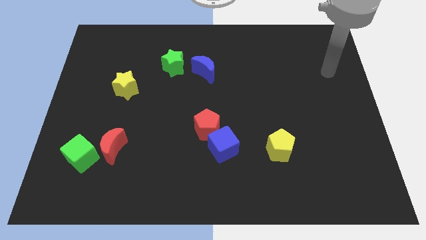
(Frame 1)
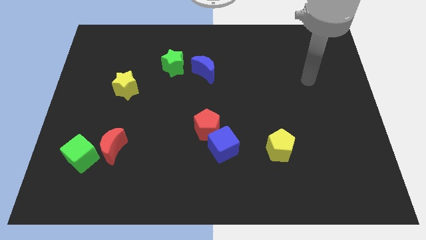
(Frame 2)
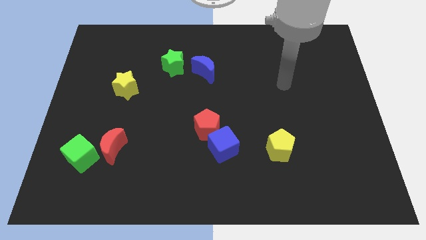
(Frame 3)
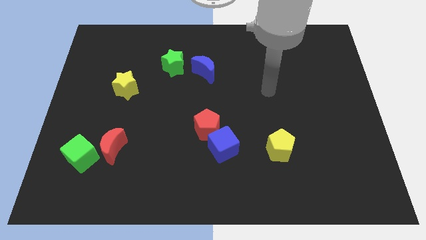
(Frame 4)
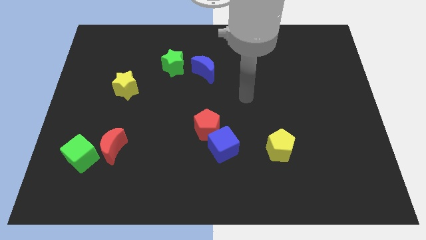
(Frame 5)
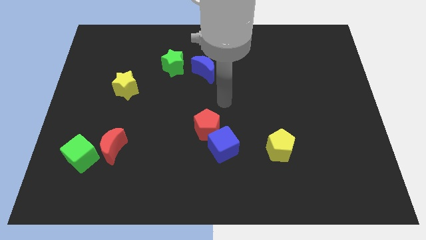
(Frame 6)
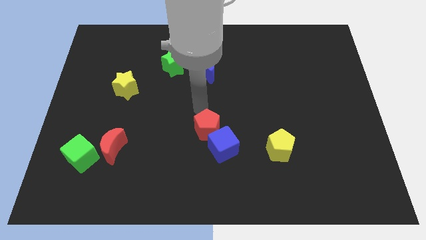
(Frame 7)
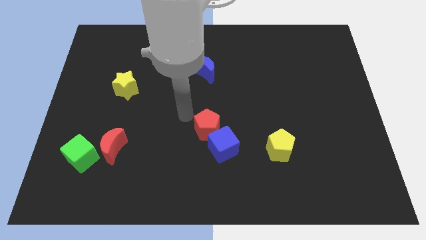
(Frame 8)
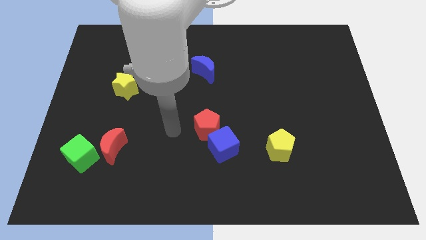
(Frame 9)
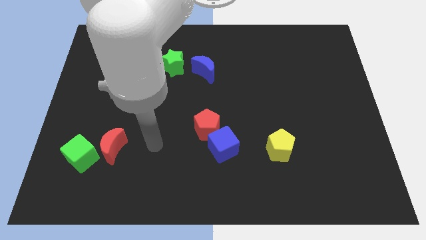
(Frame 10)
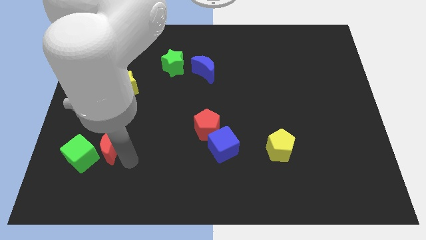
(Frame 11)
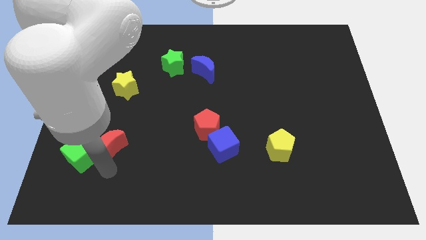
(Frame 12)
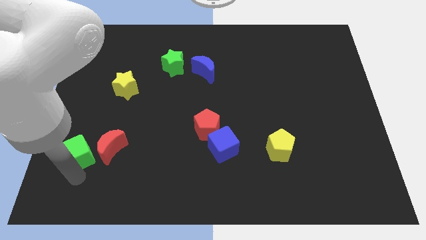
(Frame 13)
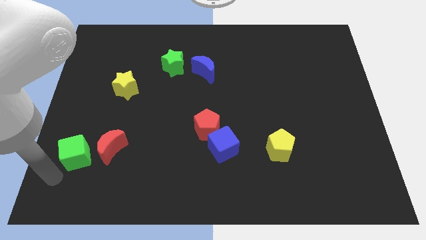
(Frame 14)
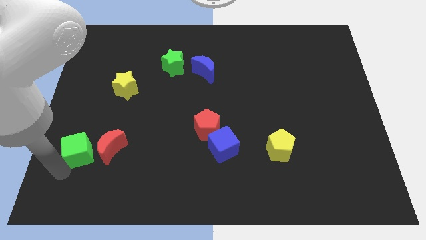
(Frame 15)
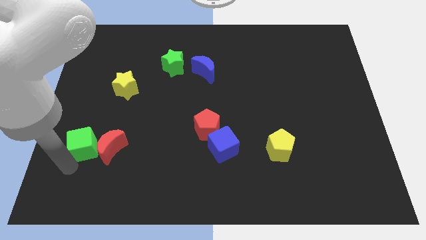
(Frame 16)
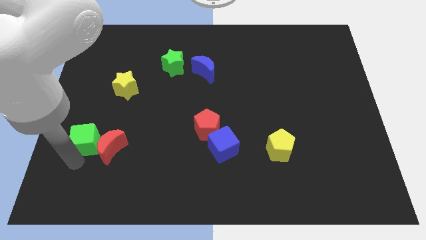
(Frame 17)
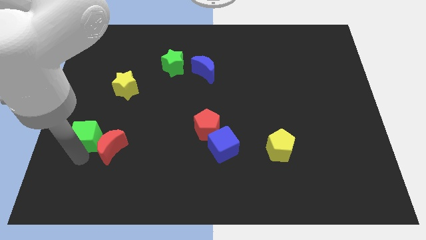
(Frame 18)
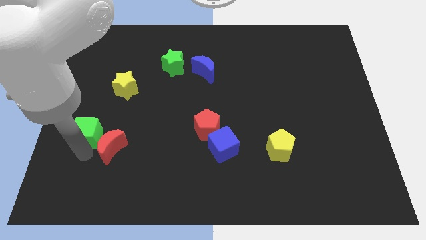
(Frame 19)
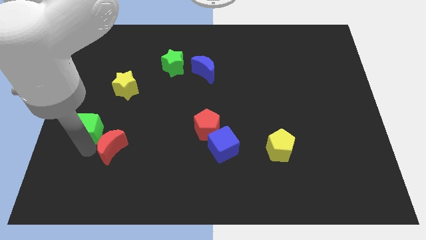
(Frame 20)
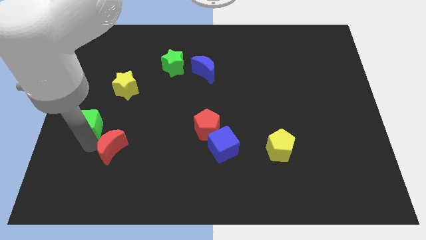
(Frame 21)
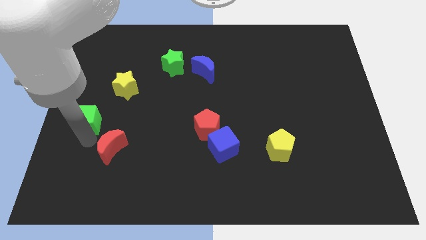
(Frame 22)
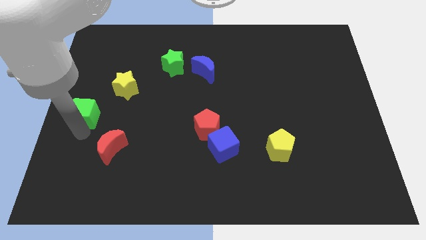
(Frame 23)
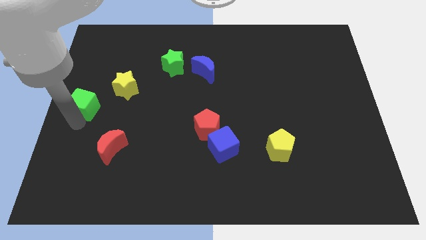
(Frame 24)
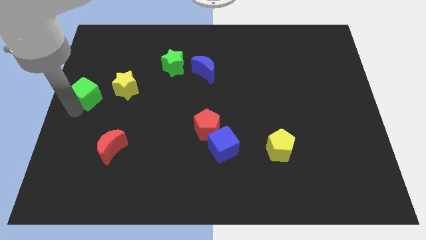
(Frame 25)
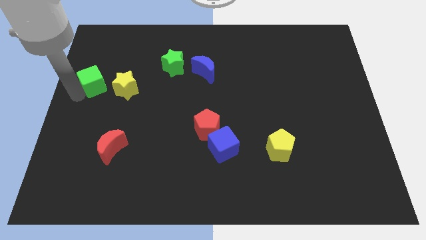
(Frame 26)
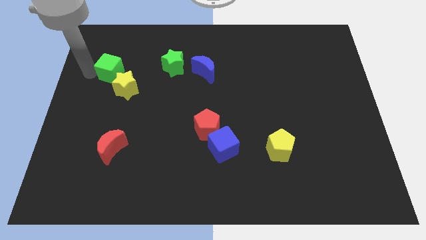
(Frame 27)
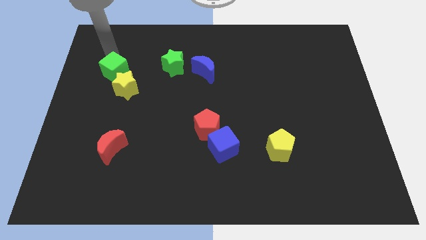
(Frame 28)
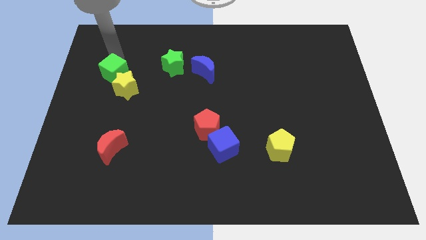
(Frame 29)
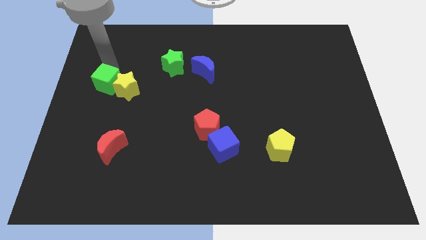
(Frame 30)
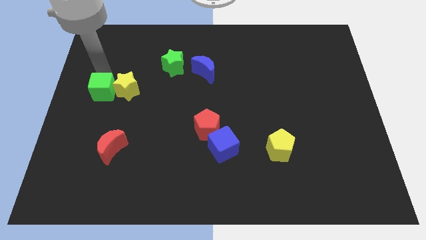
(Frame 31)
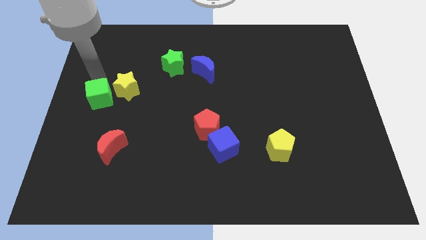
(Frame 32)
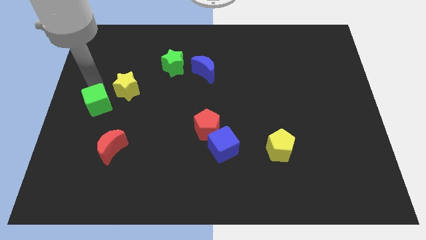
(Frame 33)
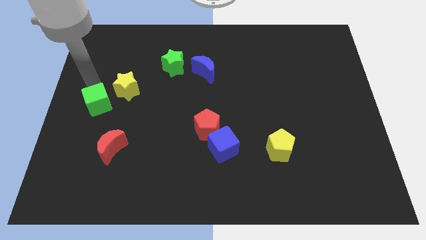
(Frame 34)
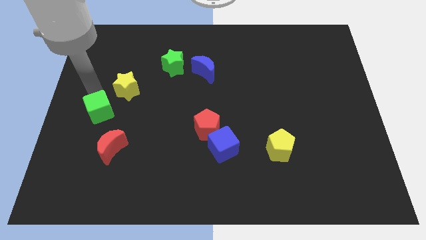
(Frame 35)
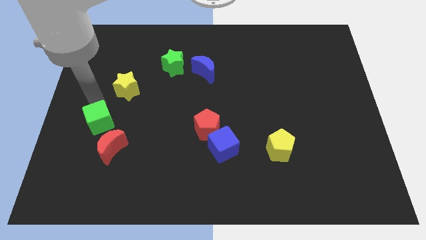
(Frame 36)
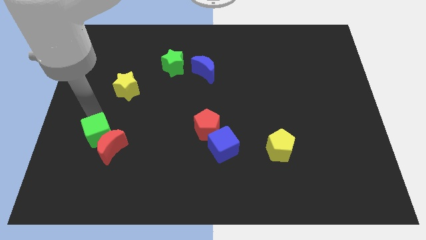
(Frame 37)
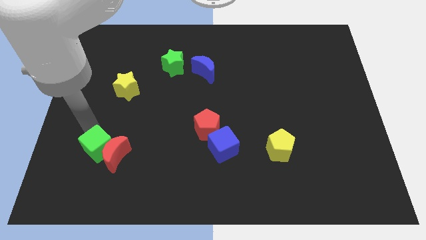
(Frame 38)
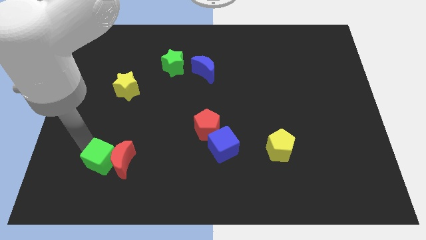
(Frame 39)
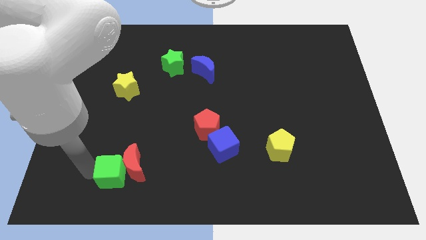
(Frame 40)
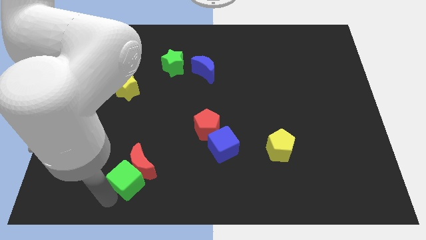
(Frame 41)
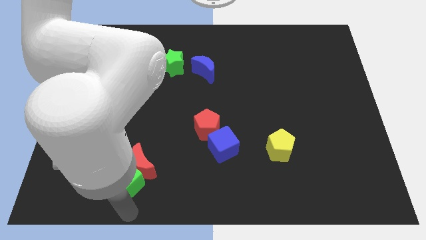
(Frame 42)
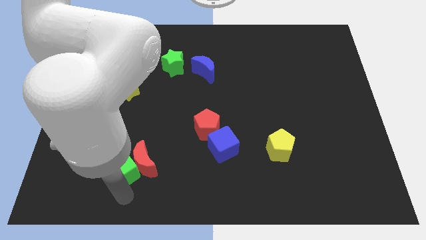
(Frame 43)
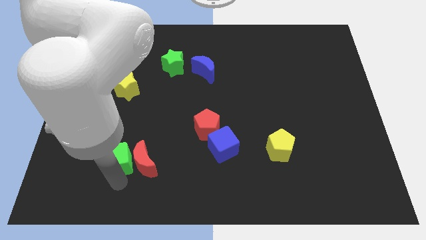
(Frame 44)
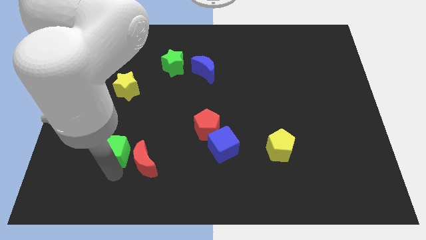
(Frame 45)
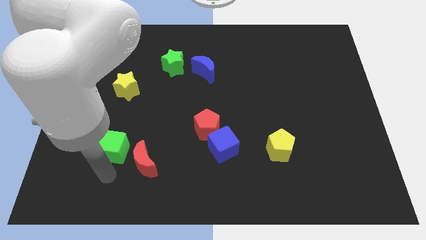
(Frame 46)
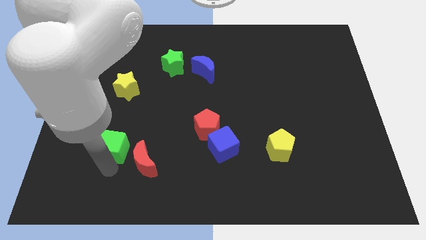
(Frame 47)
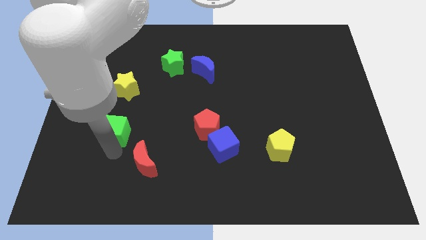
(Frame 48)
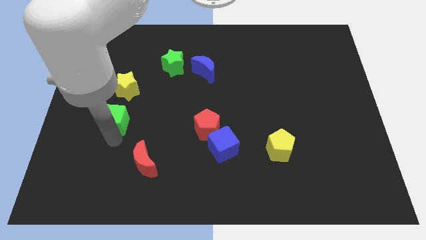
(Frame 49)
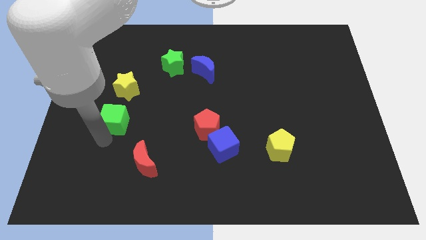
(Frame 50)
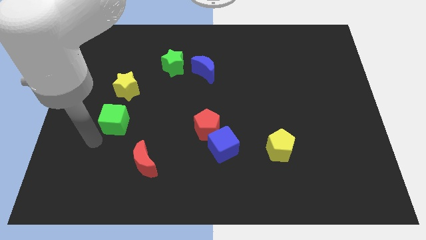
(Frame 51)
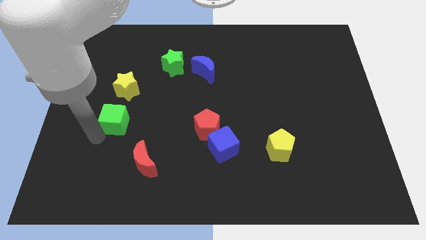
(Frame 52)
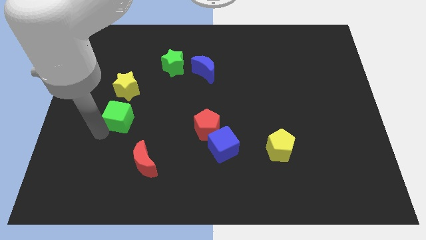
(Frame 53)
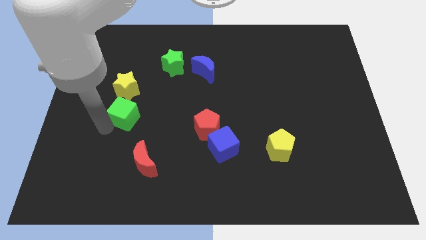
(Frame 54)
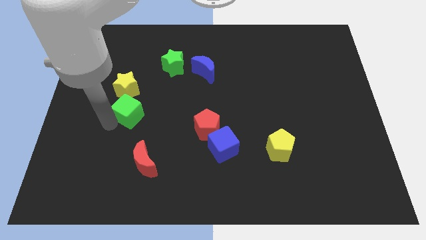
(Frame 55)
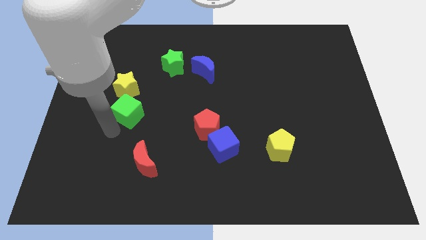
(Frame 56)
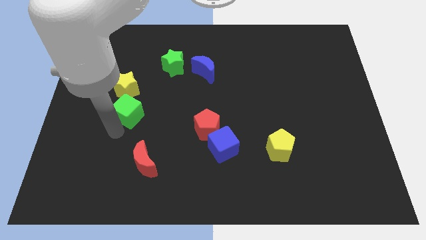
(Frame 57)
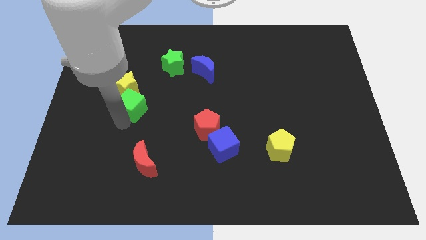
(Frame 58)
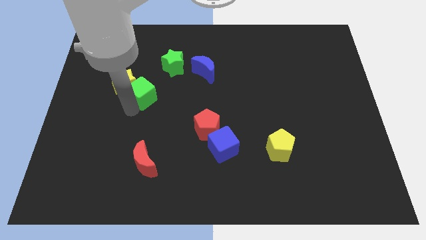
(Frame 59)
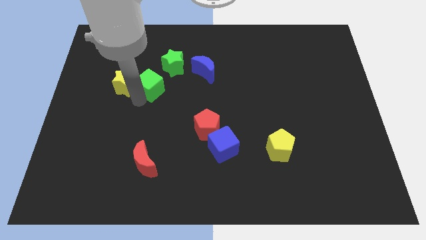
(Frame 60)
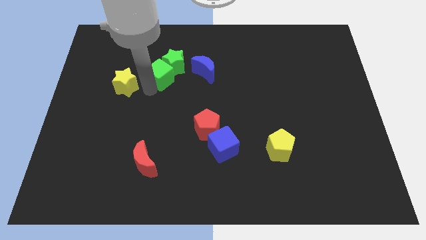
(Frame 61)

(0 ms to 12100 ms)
put the green cube next to the green star

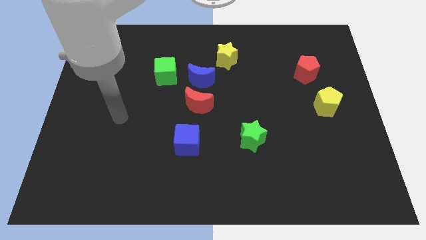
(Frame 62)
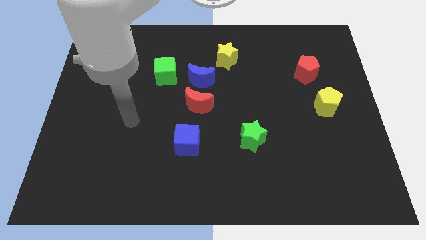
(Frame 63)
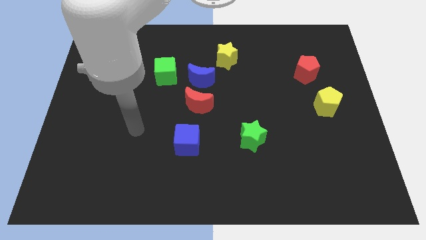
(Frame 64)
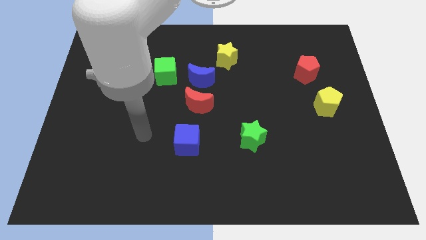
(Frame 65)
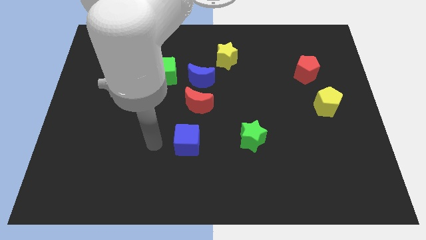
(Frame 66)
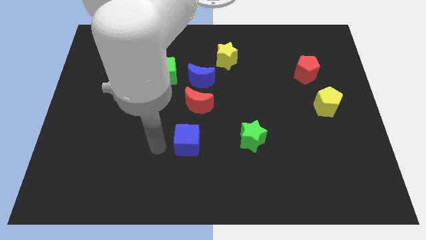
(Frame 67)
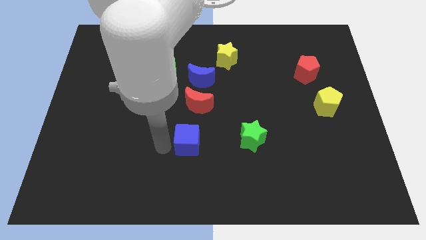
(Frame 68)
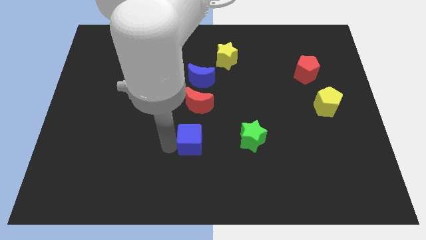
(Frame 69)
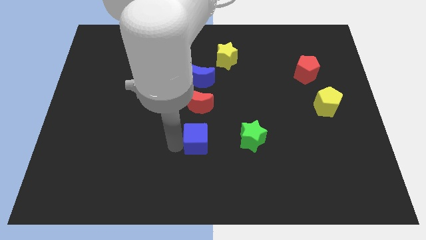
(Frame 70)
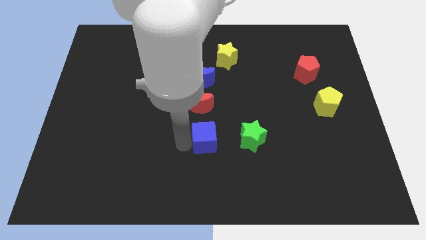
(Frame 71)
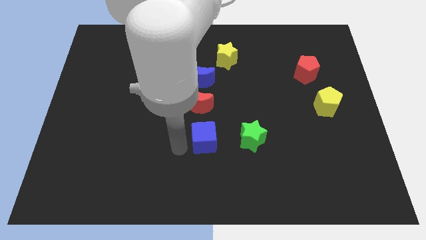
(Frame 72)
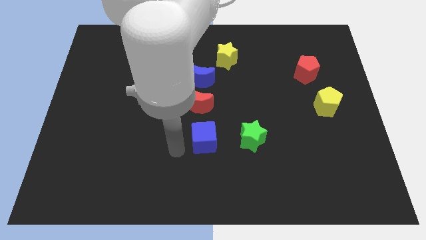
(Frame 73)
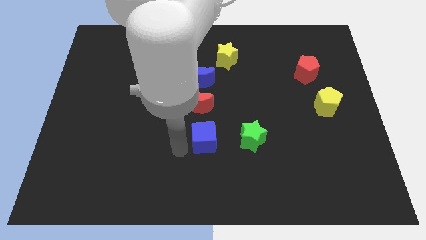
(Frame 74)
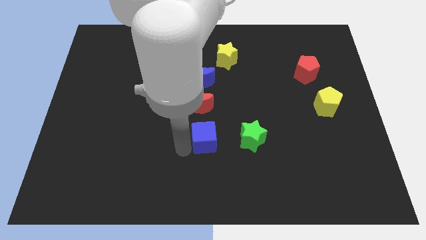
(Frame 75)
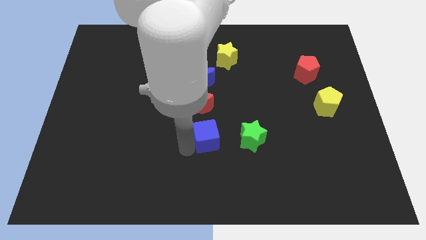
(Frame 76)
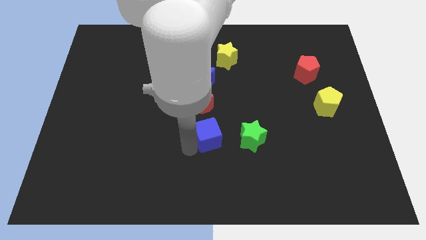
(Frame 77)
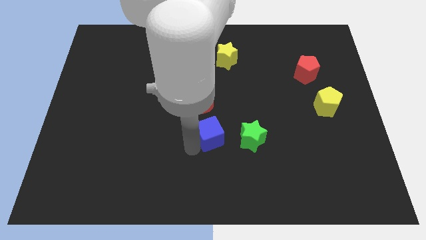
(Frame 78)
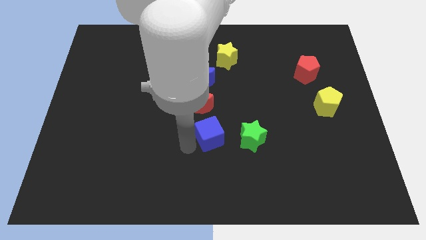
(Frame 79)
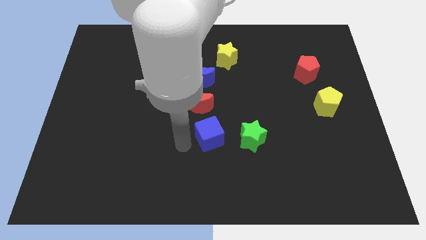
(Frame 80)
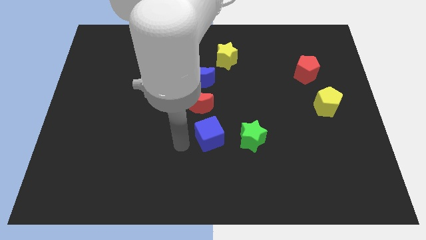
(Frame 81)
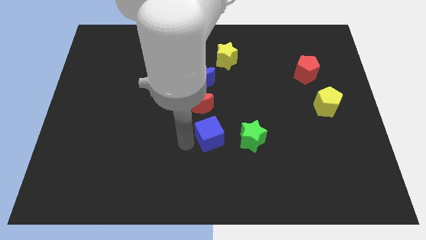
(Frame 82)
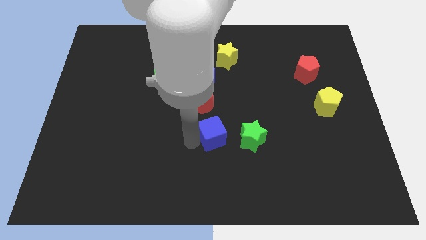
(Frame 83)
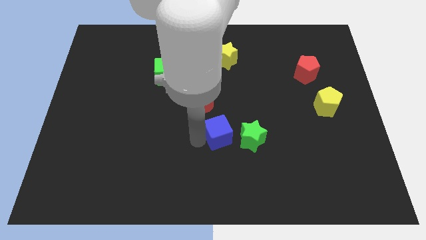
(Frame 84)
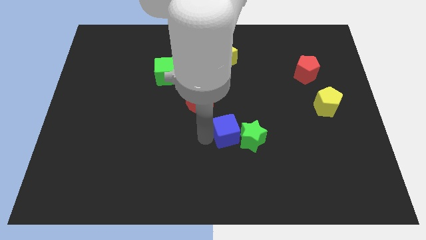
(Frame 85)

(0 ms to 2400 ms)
slide the blue cube next to the green star
